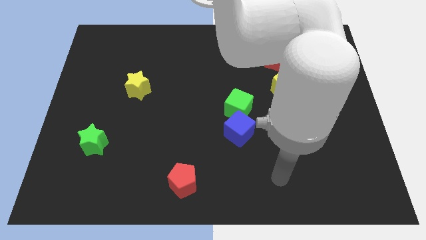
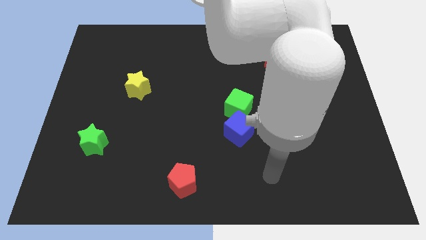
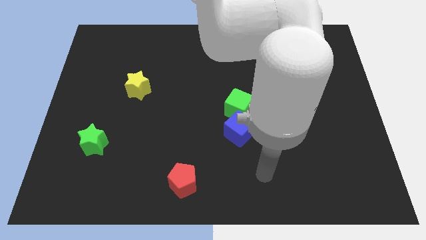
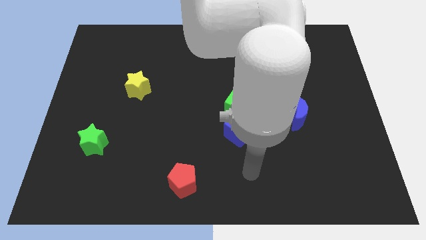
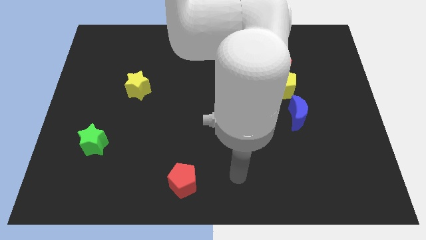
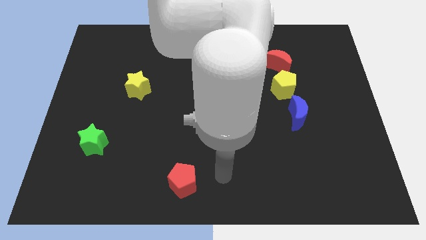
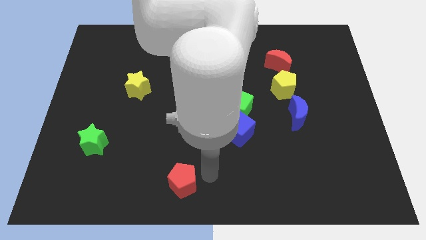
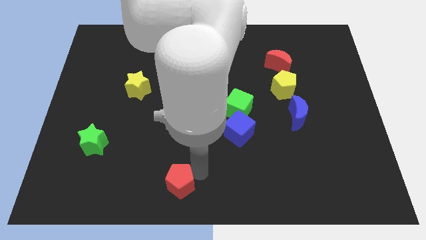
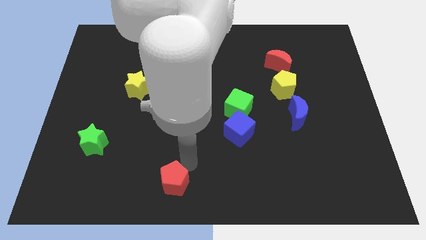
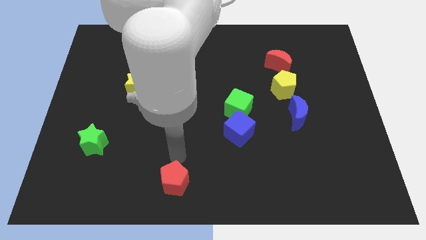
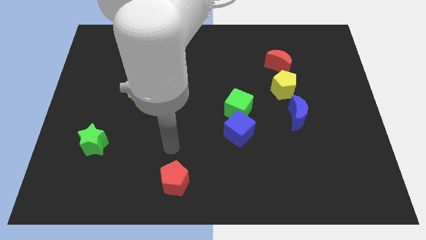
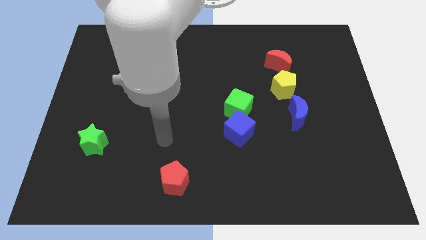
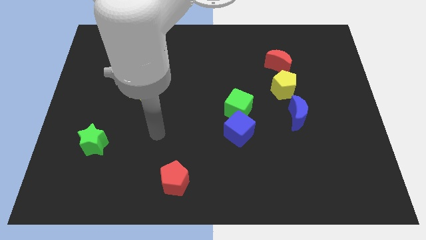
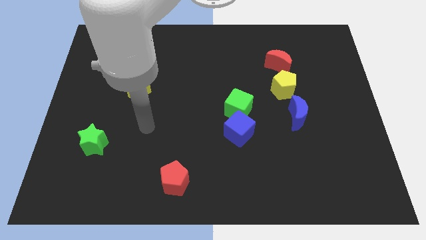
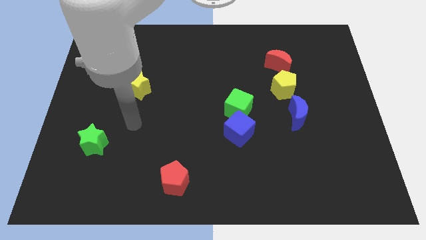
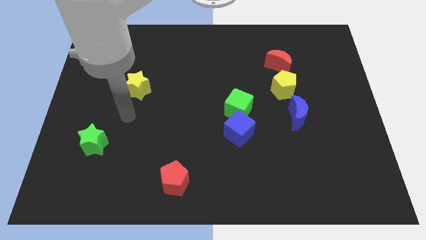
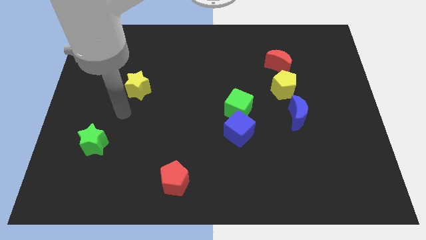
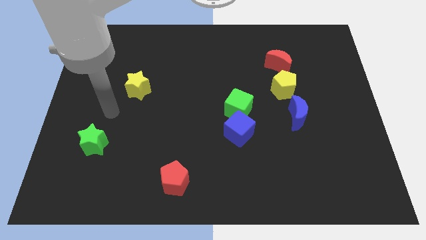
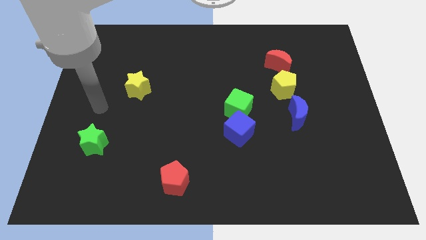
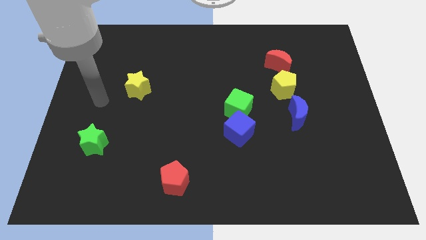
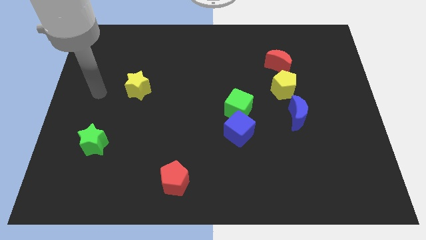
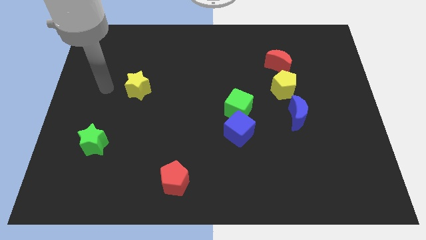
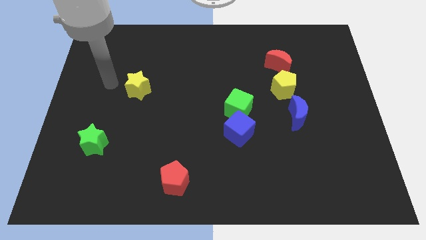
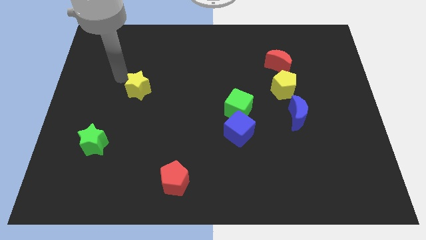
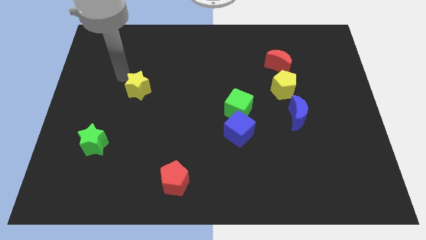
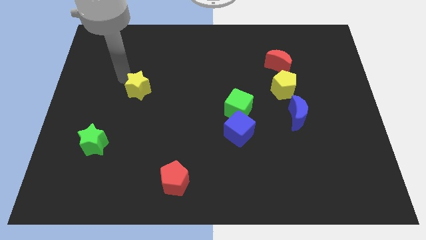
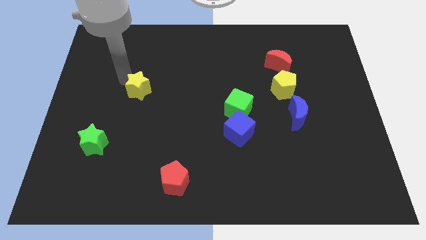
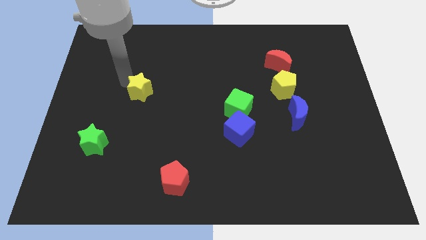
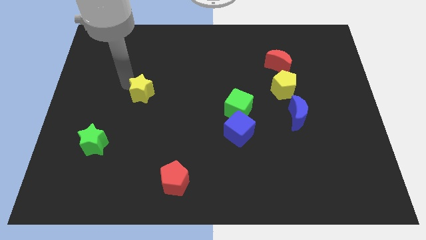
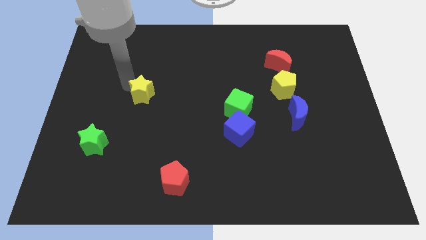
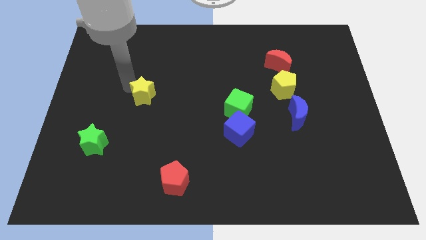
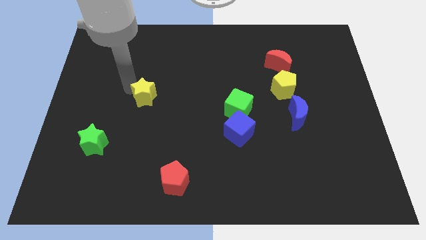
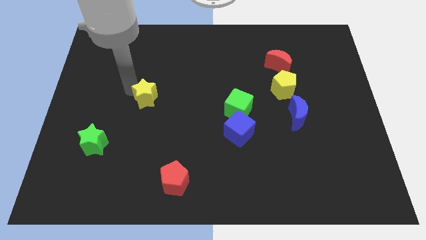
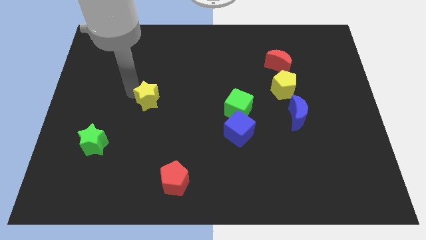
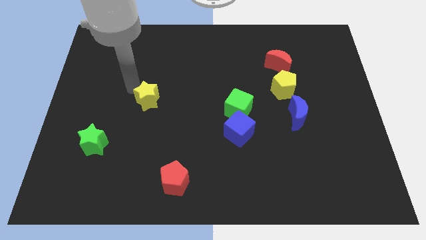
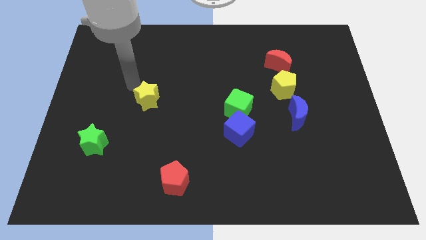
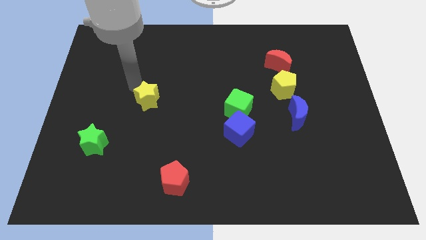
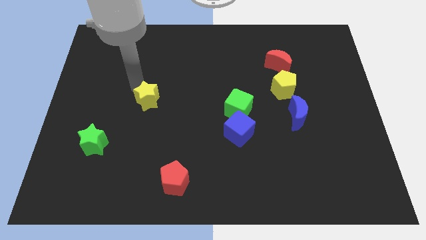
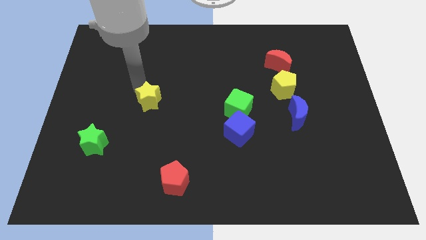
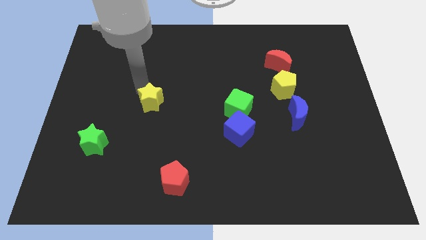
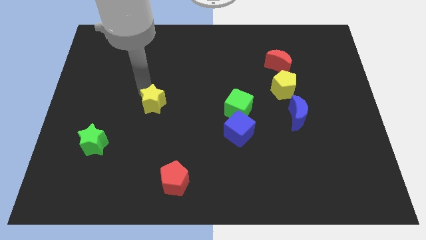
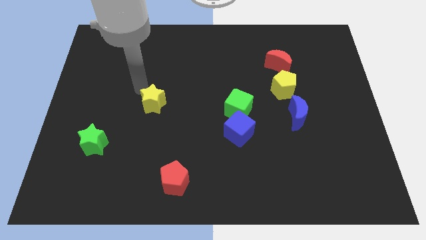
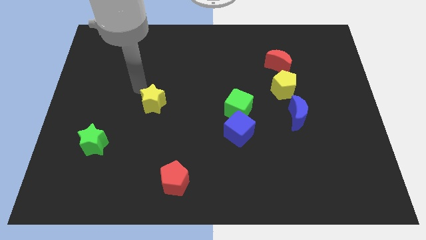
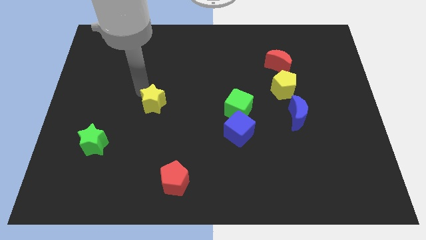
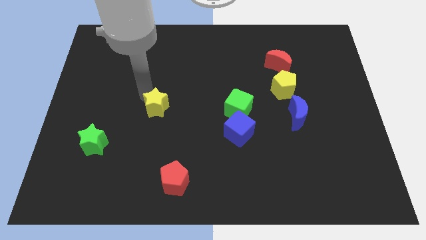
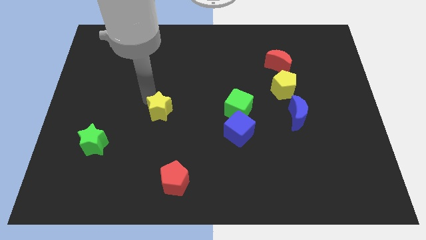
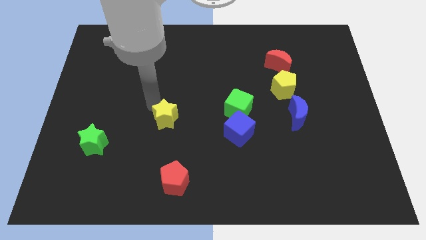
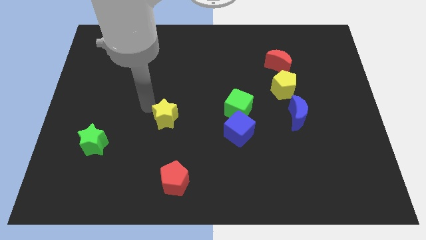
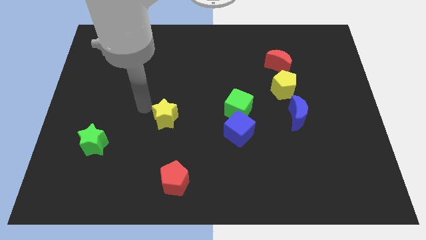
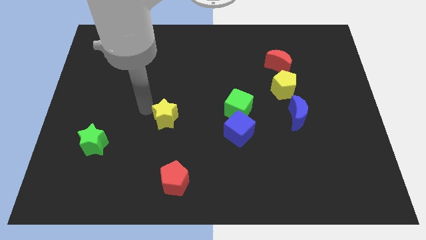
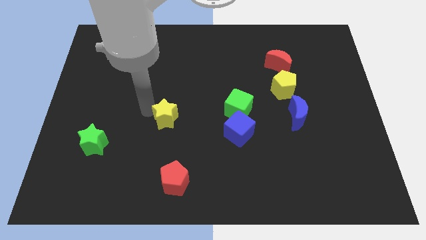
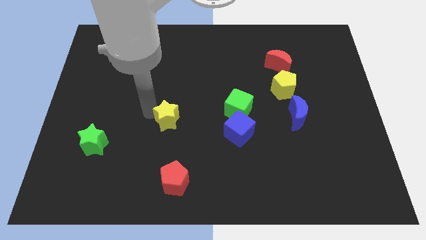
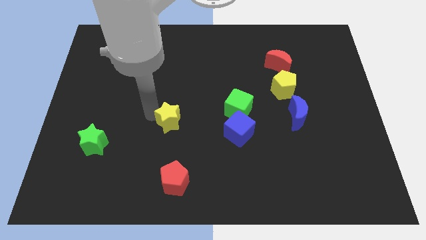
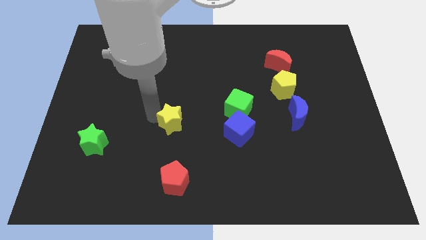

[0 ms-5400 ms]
push the yellow star to the left side of the blue cube

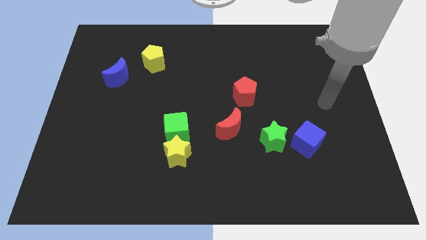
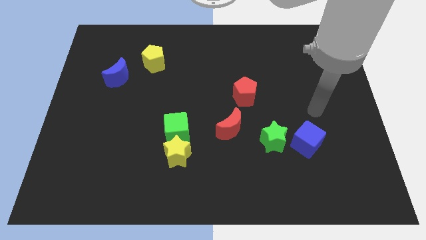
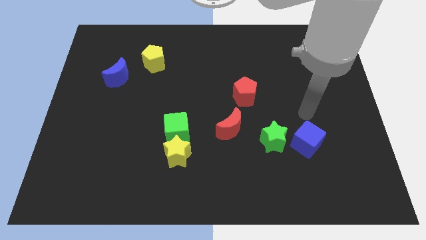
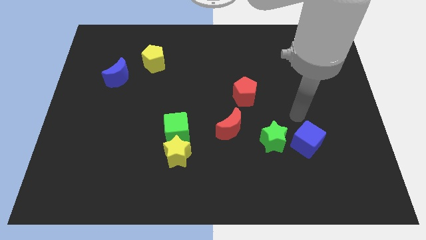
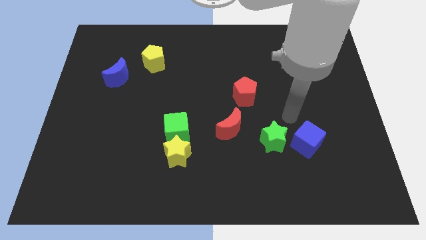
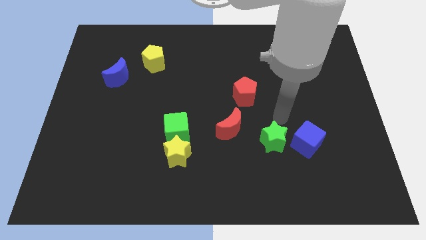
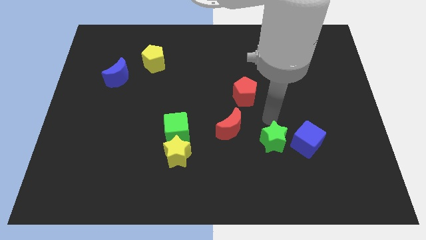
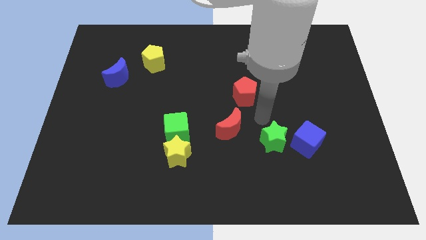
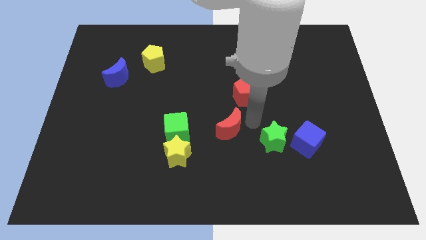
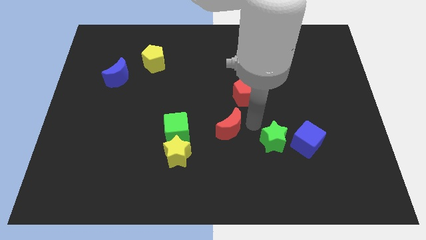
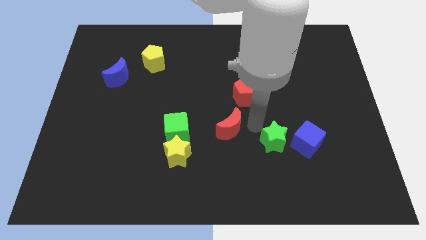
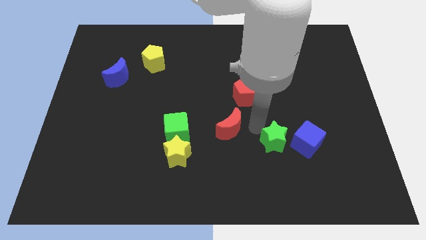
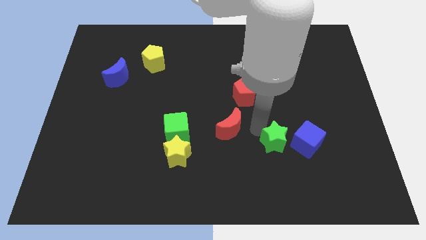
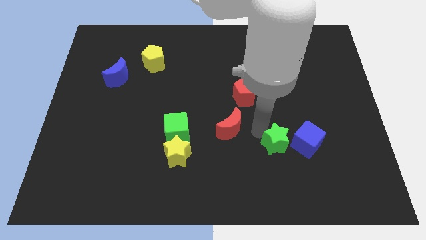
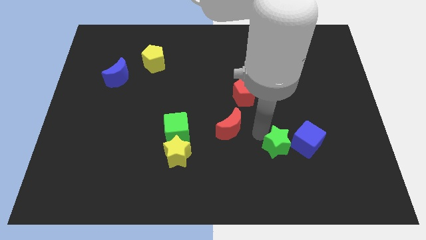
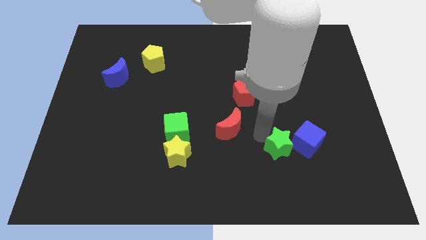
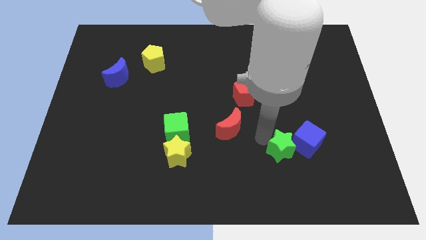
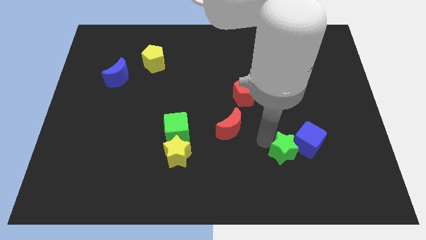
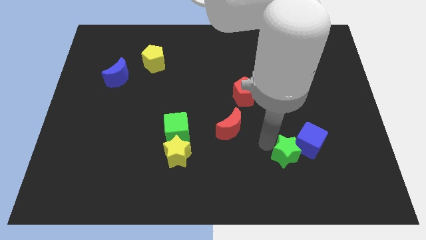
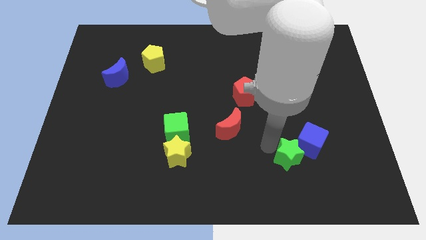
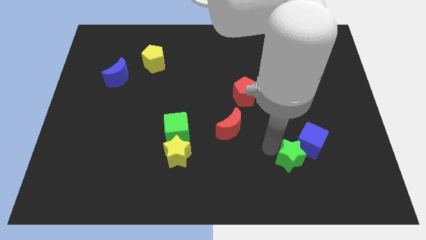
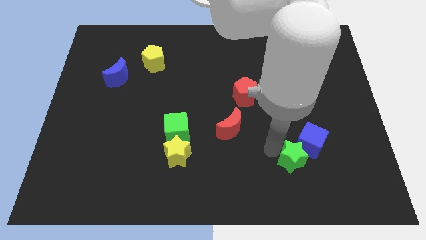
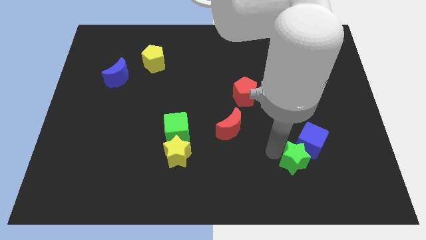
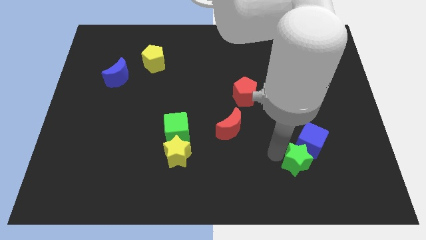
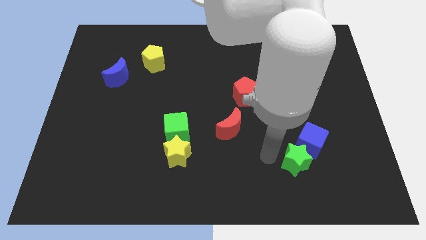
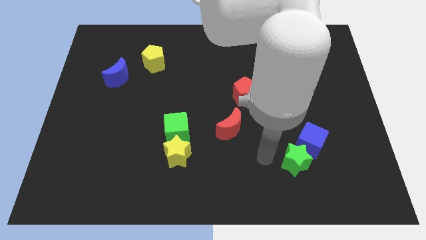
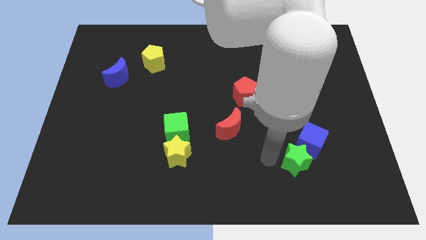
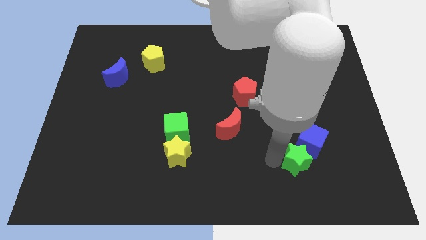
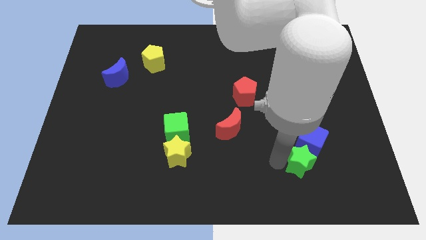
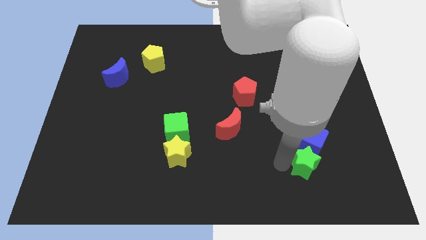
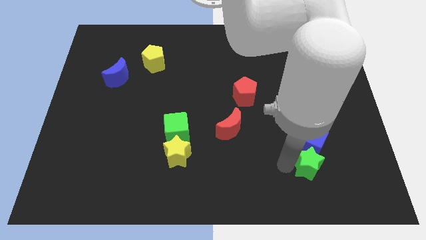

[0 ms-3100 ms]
push the green star to the bottom right of the blue cube
